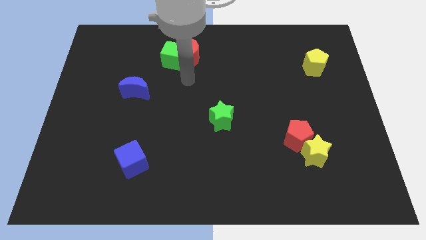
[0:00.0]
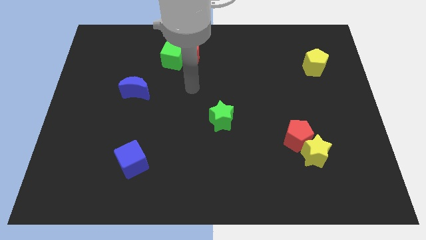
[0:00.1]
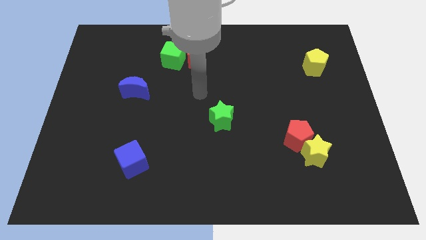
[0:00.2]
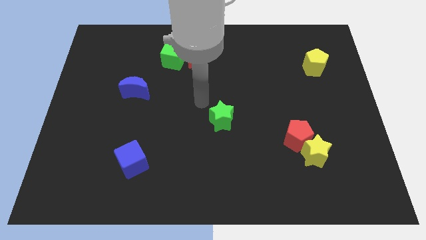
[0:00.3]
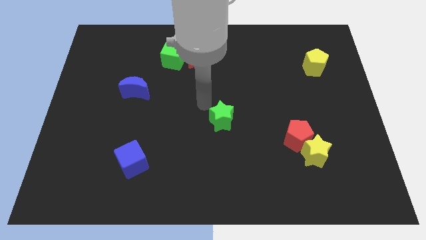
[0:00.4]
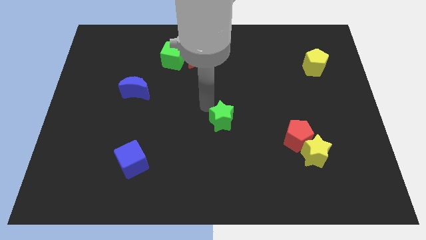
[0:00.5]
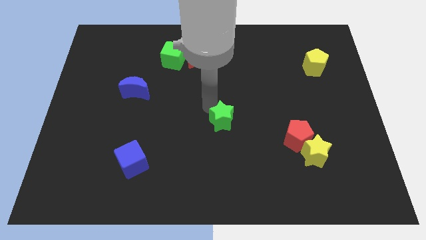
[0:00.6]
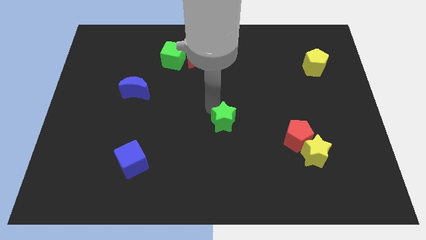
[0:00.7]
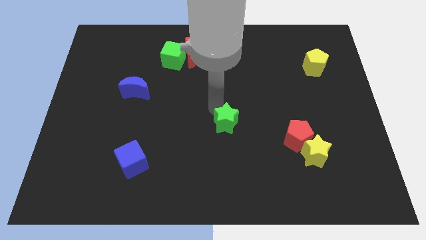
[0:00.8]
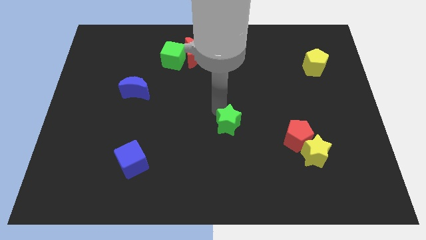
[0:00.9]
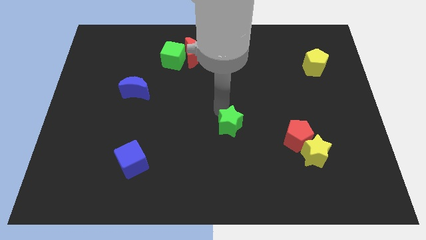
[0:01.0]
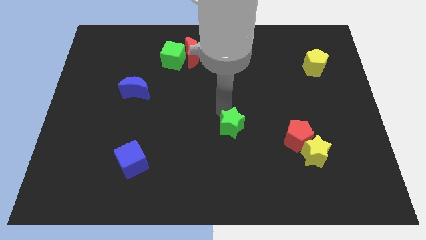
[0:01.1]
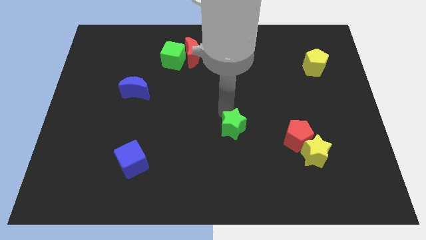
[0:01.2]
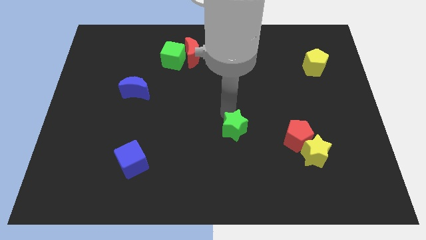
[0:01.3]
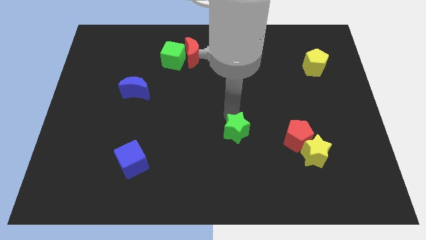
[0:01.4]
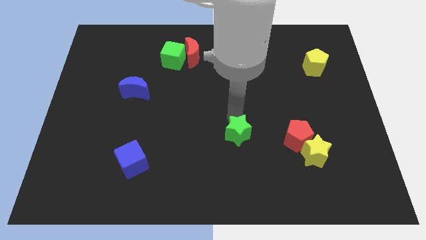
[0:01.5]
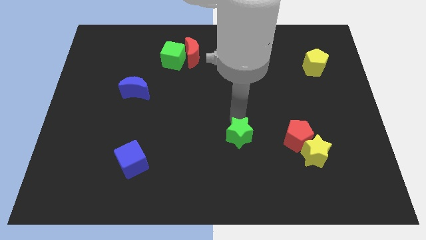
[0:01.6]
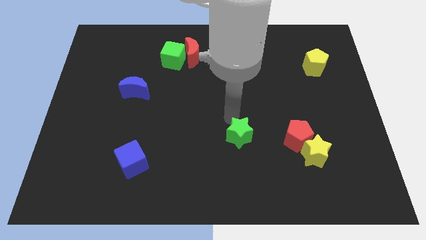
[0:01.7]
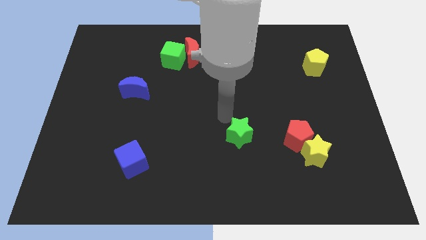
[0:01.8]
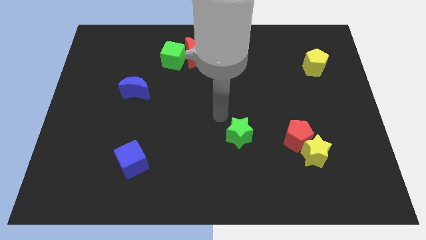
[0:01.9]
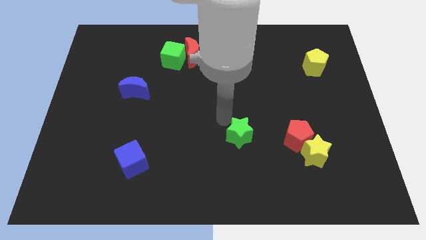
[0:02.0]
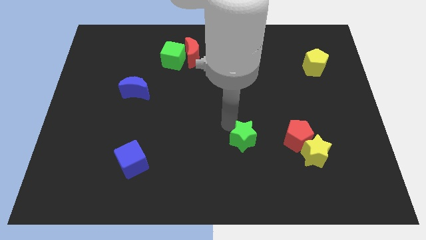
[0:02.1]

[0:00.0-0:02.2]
push the green star somewhat diagonally down and to the right

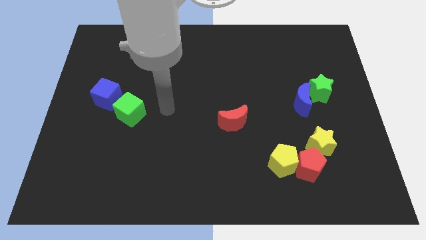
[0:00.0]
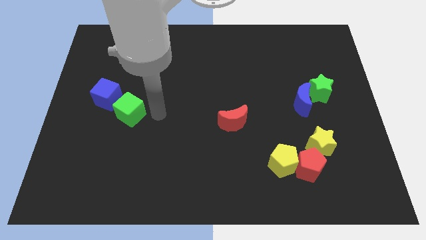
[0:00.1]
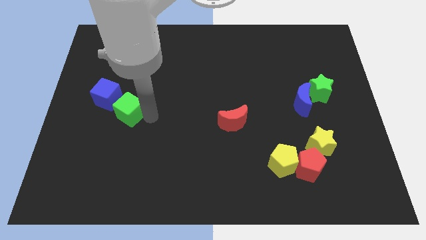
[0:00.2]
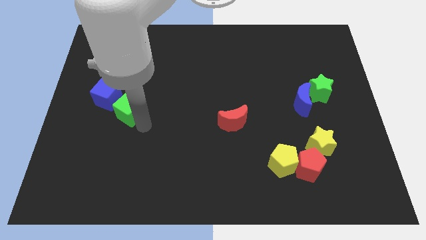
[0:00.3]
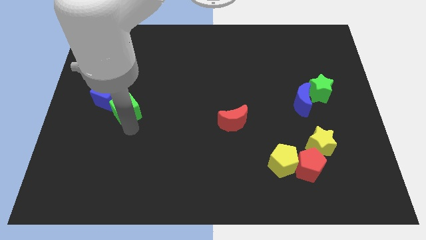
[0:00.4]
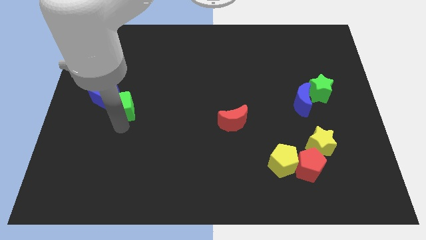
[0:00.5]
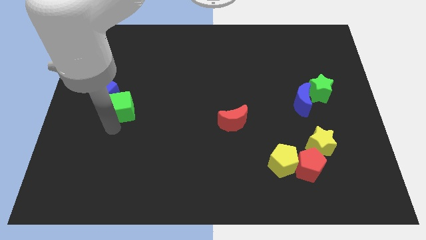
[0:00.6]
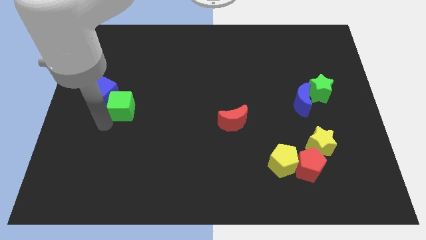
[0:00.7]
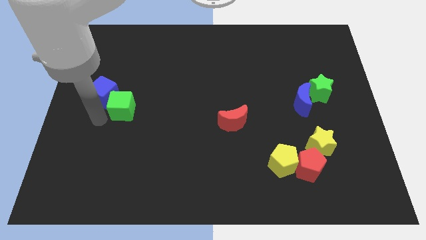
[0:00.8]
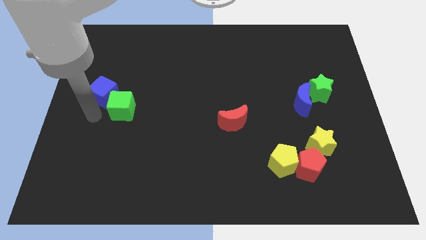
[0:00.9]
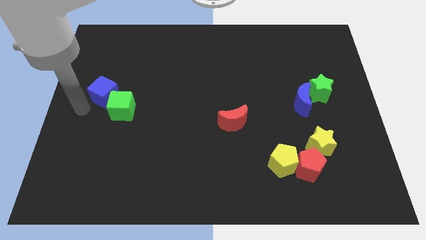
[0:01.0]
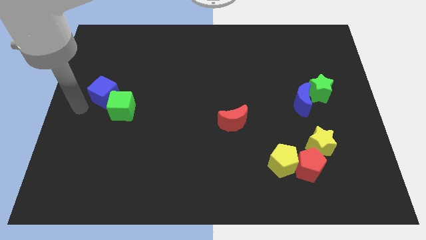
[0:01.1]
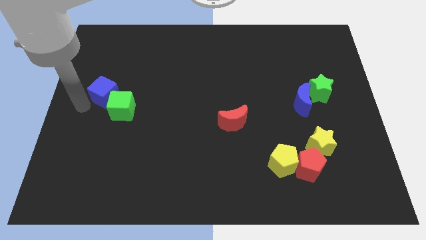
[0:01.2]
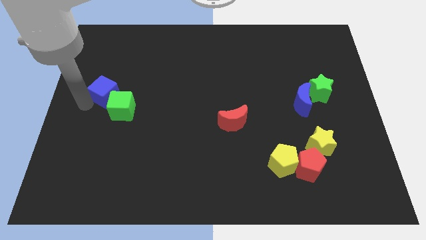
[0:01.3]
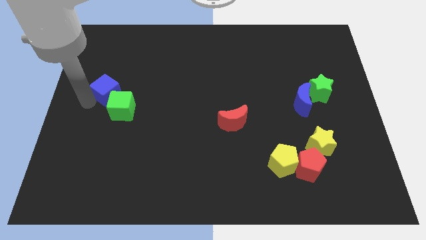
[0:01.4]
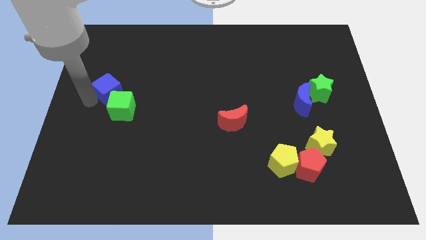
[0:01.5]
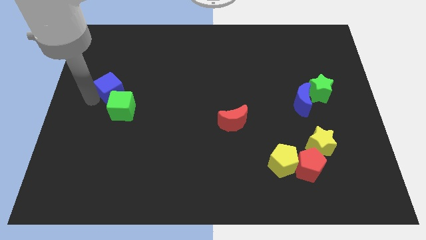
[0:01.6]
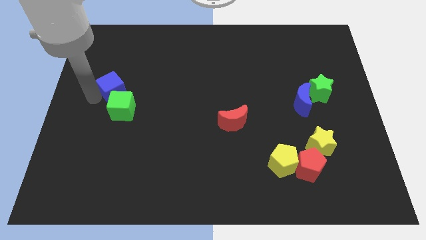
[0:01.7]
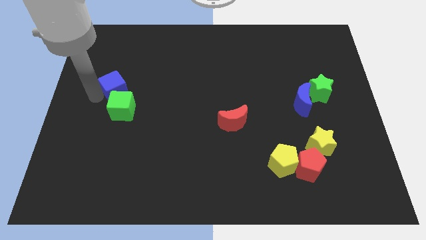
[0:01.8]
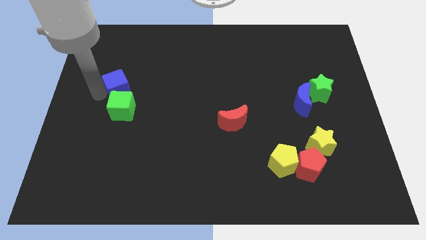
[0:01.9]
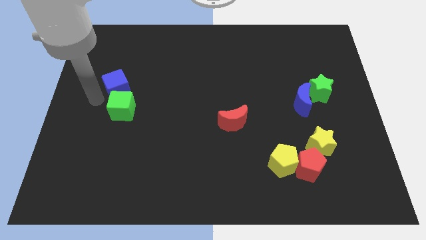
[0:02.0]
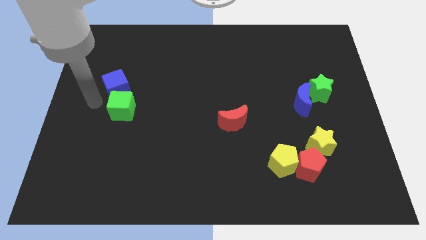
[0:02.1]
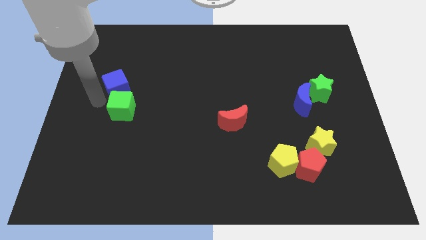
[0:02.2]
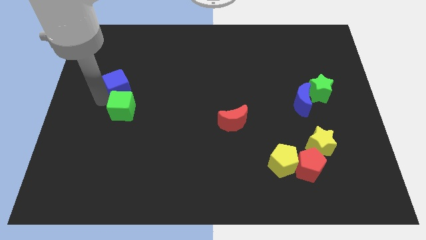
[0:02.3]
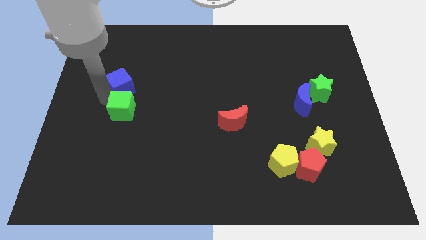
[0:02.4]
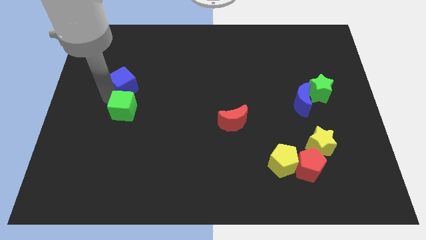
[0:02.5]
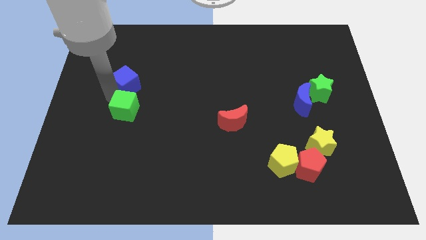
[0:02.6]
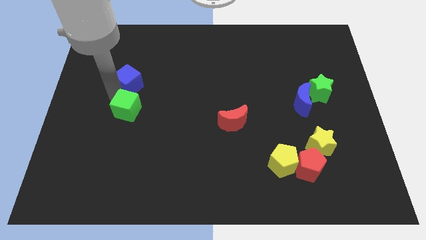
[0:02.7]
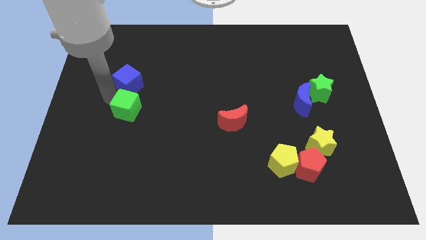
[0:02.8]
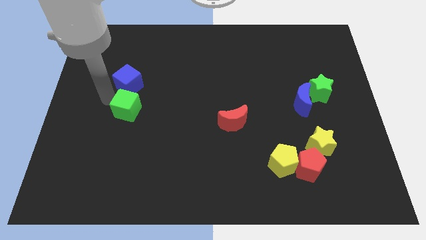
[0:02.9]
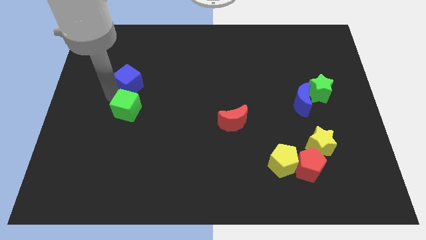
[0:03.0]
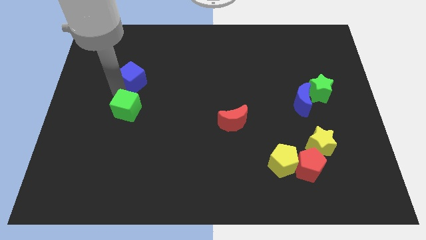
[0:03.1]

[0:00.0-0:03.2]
slide the blue cube somewhat up and to the right diagonally

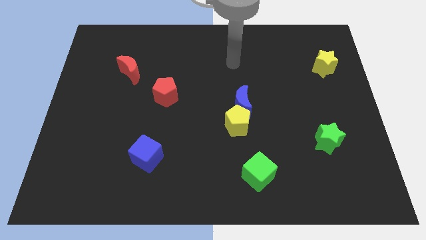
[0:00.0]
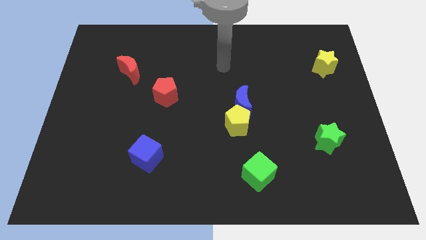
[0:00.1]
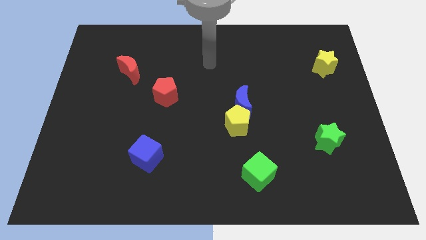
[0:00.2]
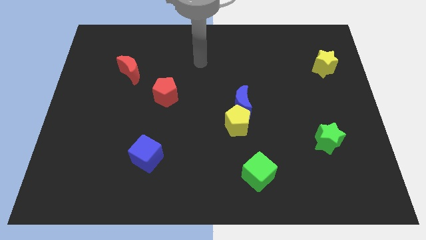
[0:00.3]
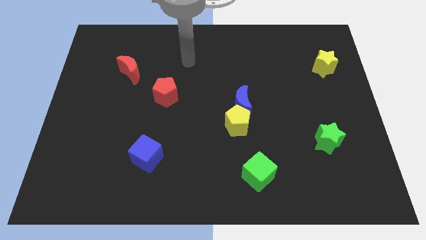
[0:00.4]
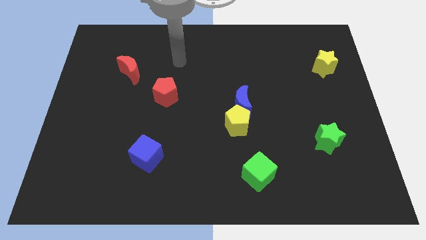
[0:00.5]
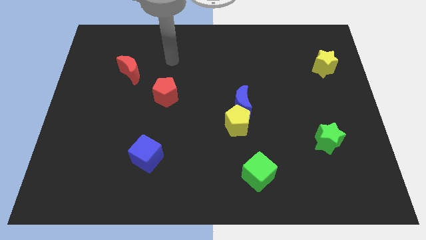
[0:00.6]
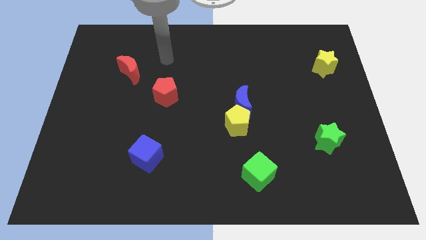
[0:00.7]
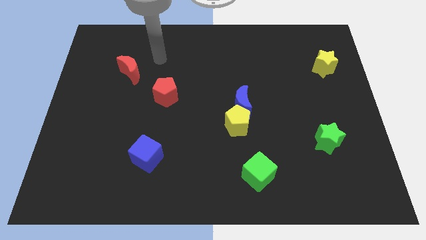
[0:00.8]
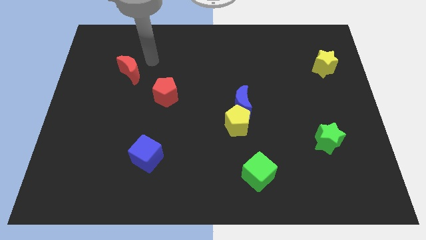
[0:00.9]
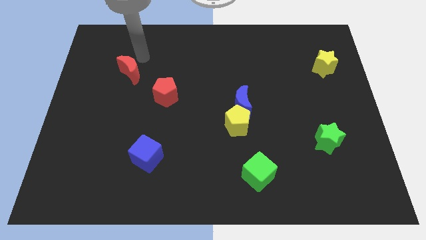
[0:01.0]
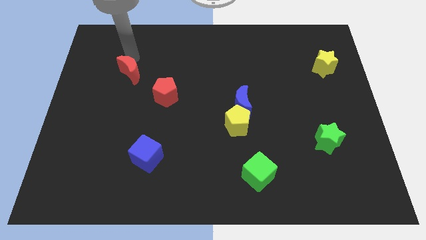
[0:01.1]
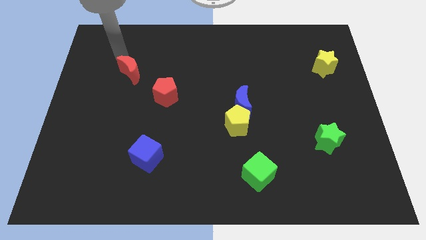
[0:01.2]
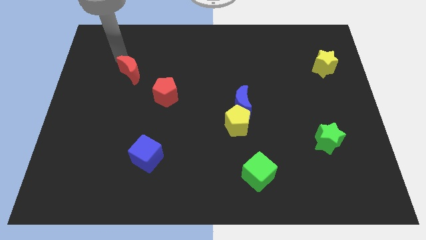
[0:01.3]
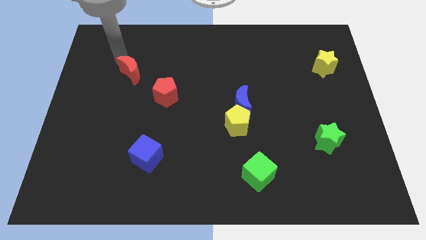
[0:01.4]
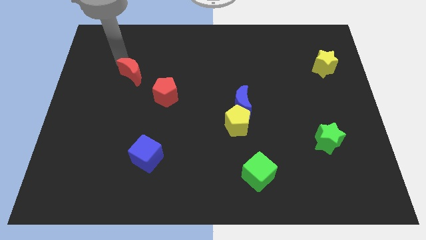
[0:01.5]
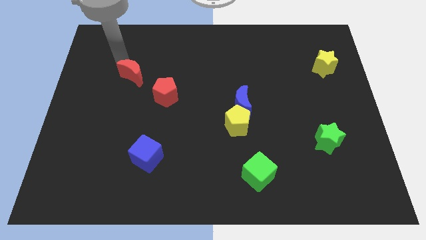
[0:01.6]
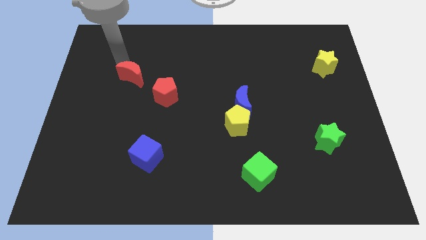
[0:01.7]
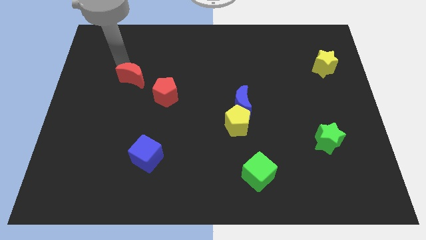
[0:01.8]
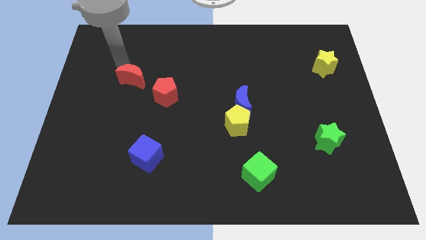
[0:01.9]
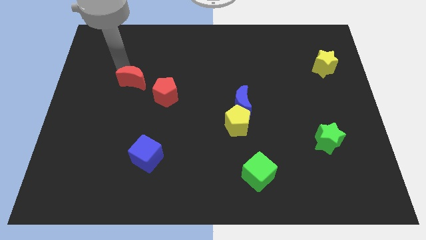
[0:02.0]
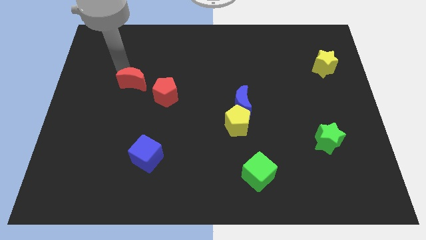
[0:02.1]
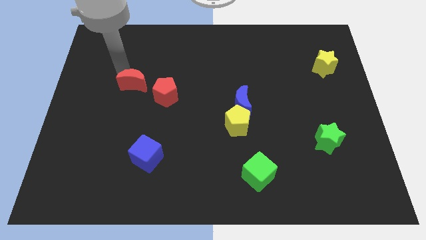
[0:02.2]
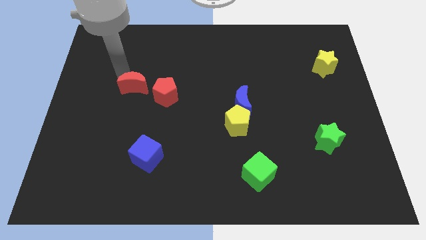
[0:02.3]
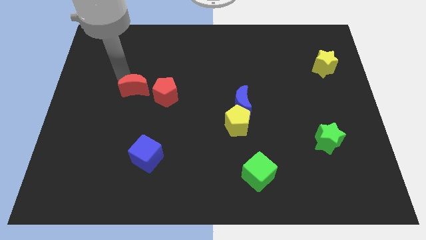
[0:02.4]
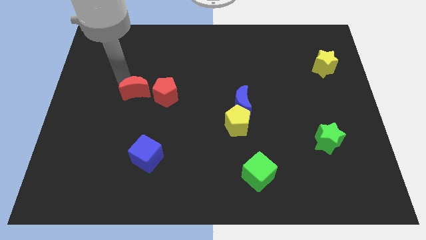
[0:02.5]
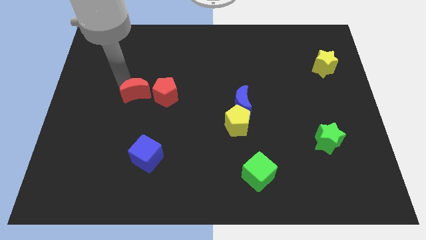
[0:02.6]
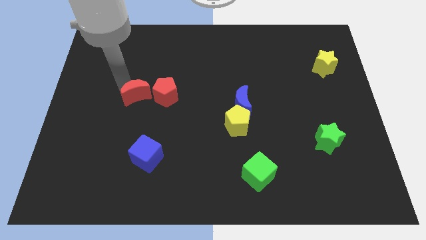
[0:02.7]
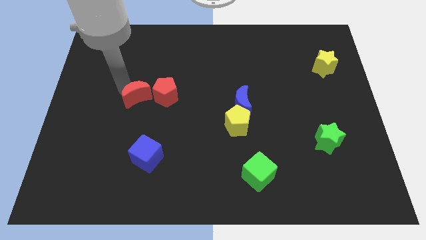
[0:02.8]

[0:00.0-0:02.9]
slightly slide the red moon downwards and to the right diagonally

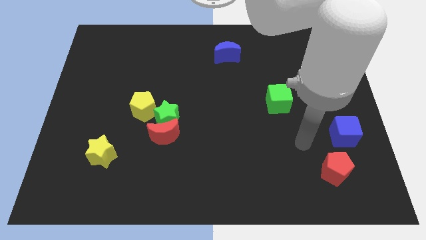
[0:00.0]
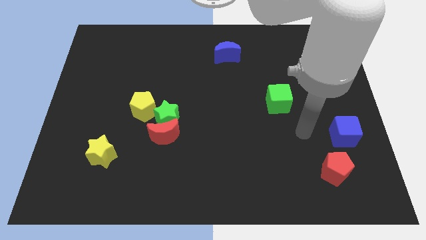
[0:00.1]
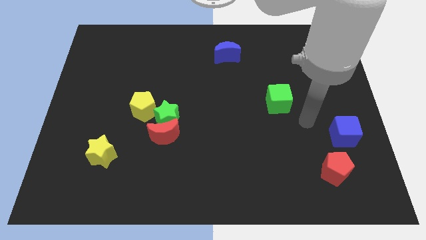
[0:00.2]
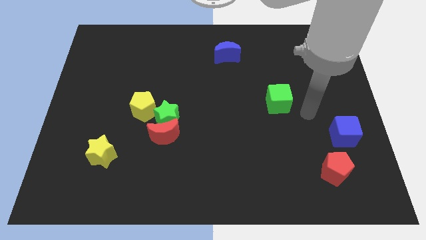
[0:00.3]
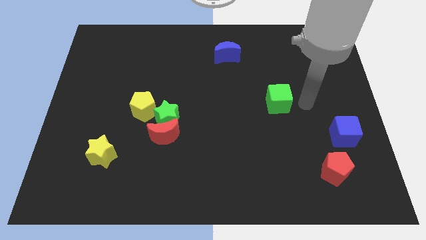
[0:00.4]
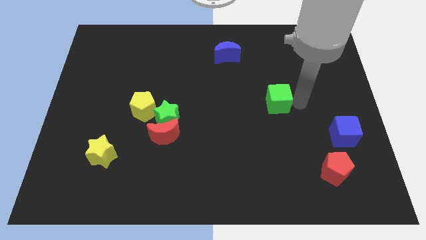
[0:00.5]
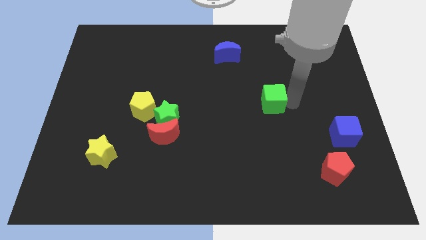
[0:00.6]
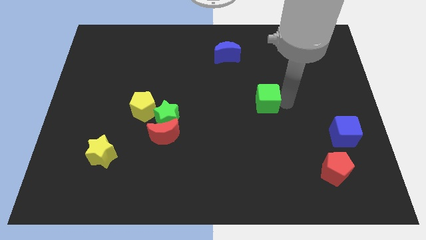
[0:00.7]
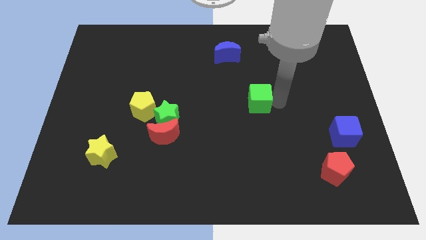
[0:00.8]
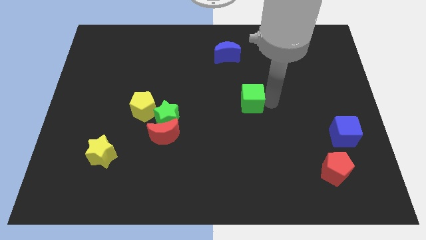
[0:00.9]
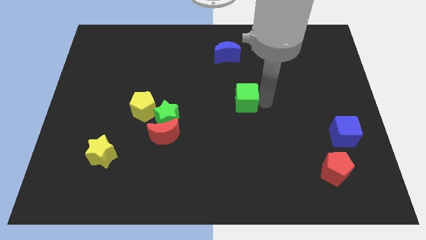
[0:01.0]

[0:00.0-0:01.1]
push the green cube to the left a bit
